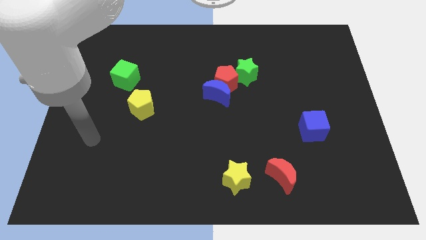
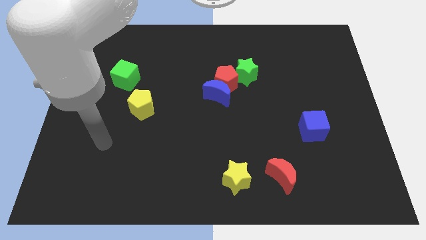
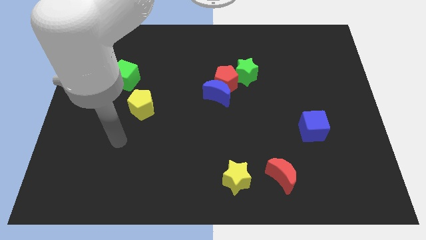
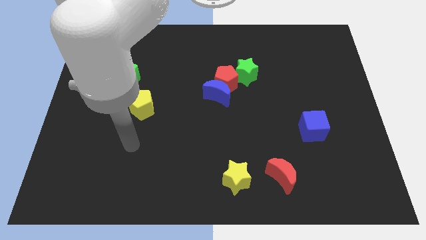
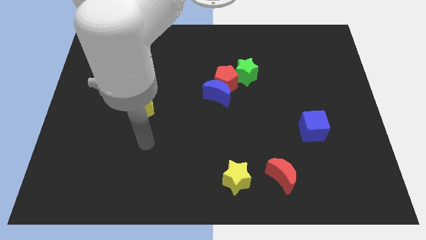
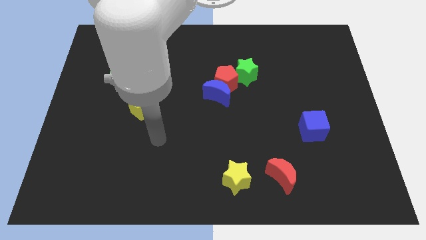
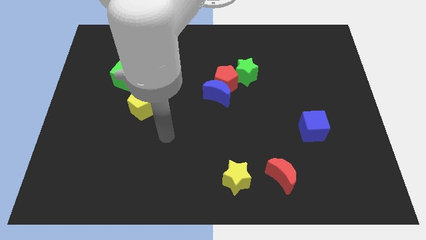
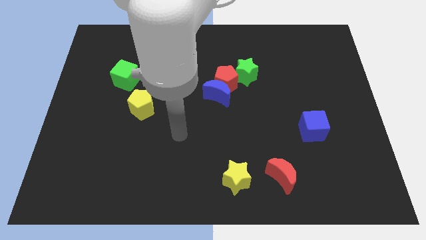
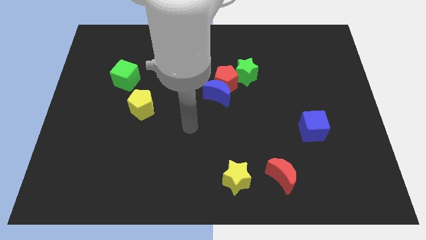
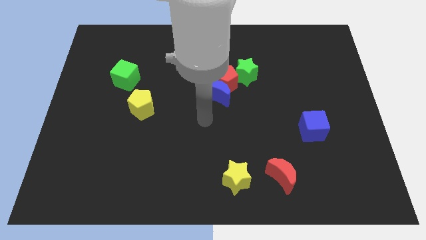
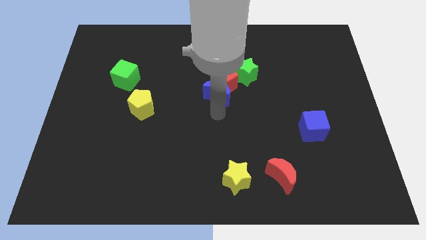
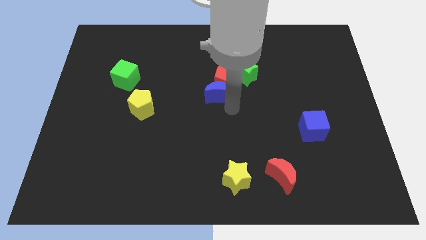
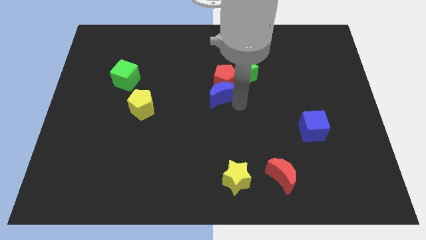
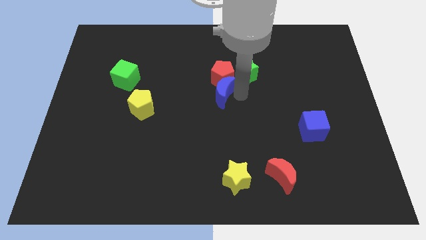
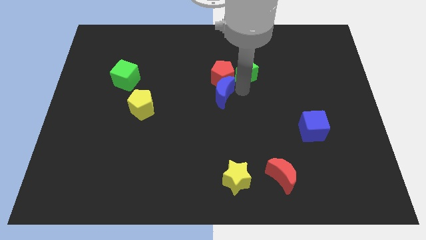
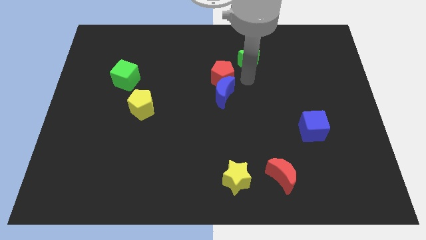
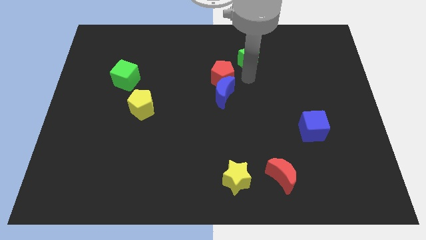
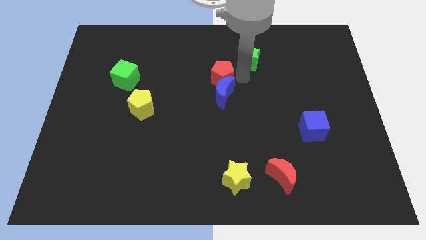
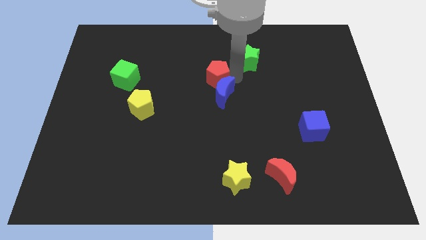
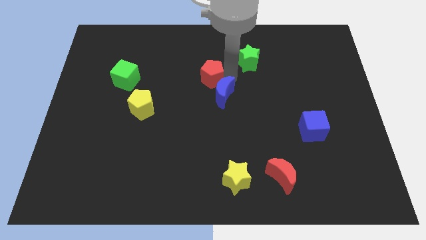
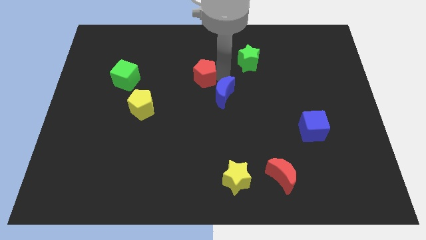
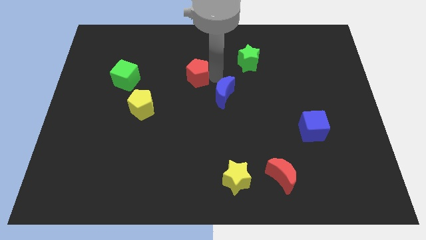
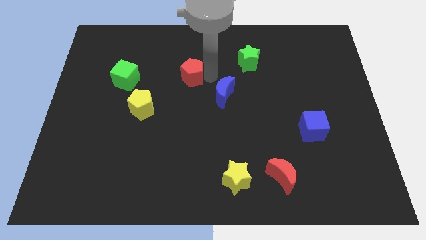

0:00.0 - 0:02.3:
separate the red pentagon from the blue moon and green star

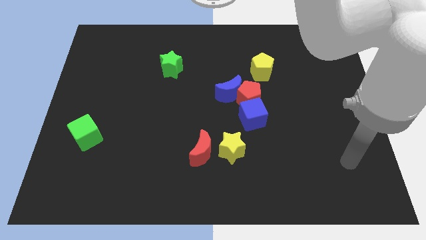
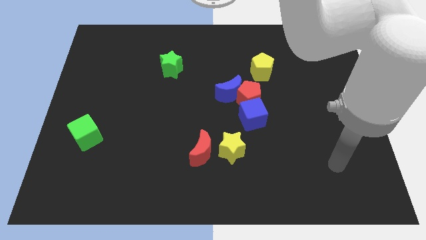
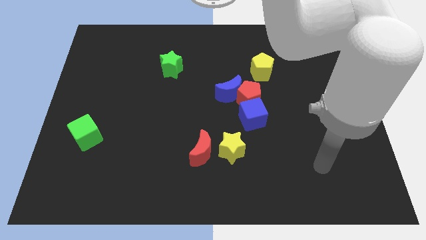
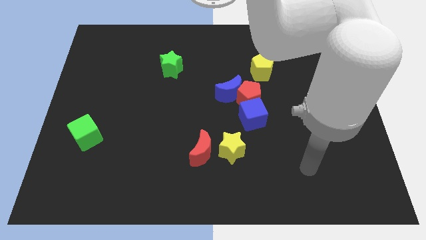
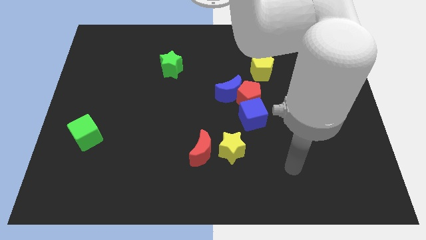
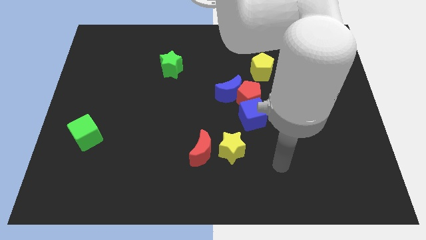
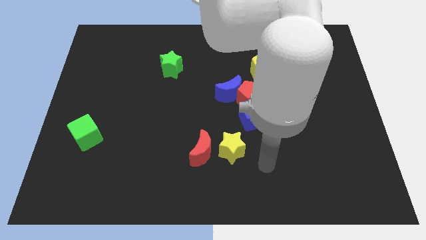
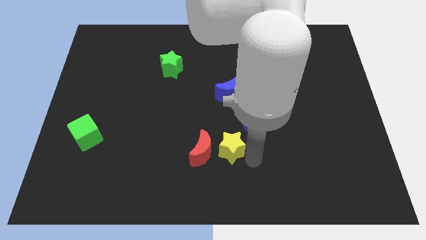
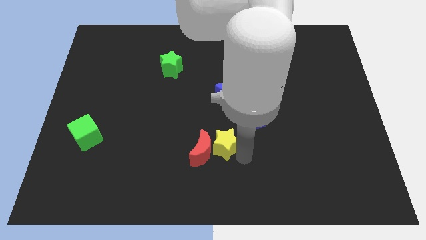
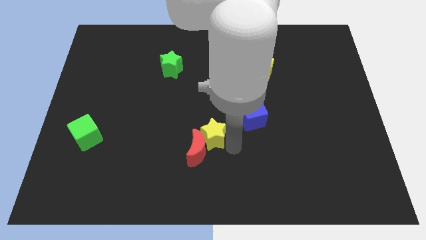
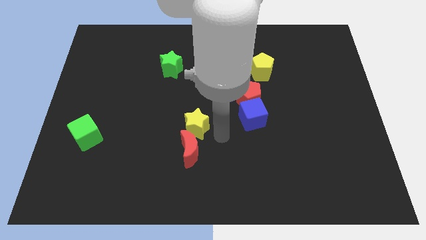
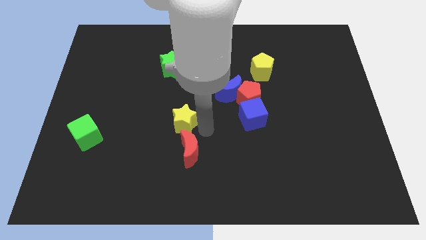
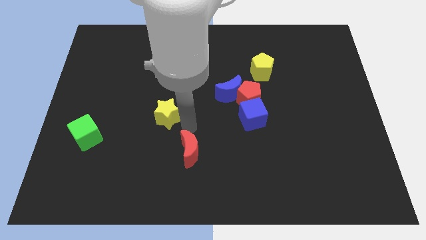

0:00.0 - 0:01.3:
separate the red moon from the yellow star

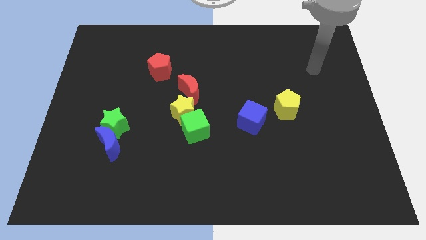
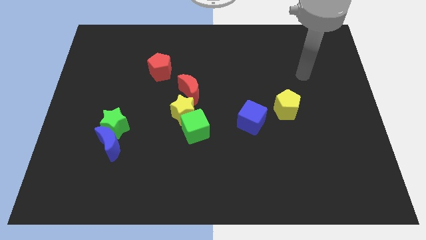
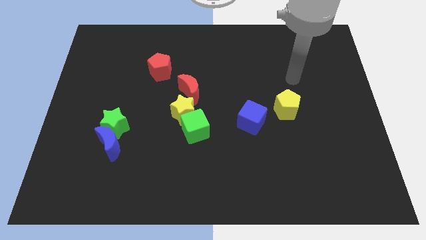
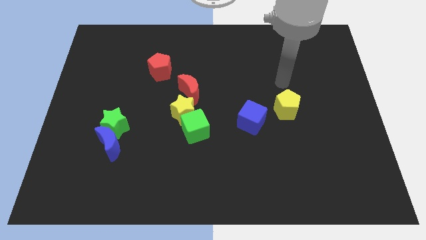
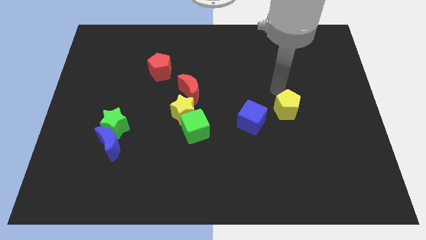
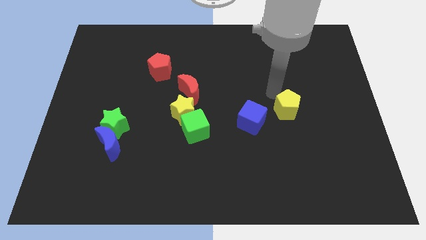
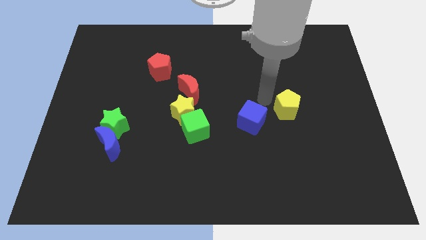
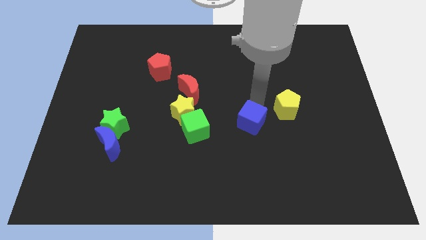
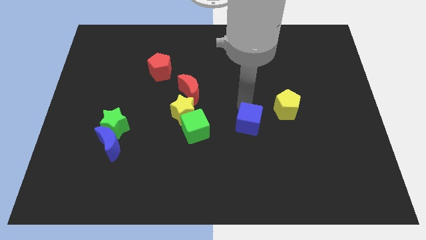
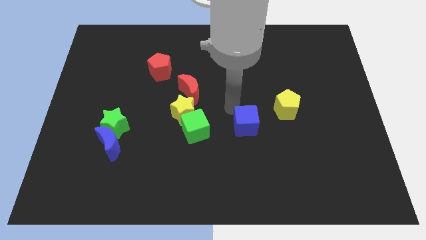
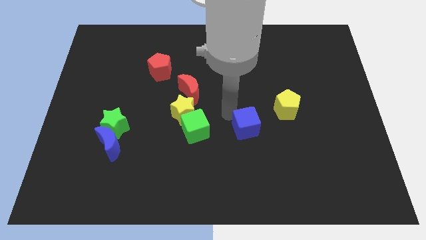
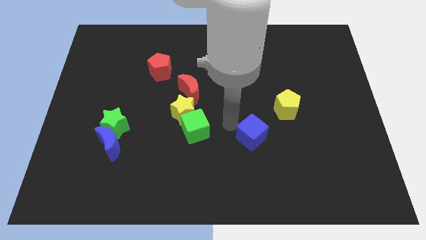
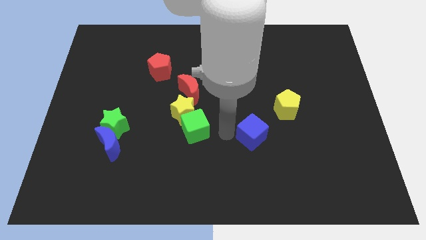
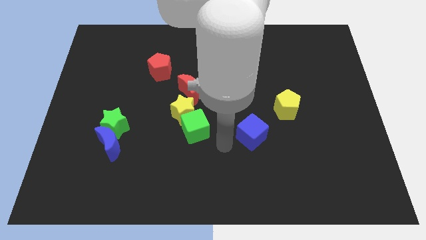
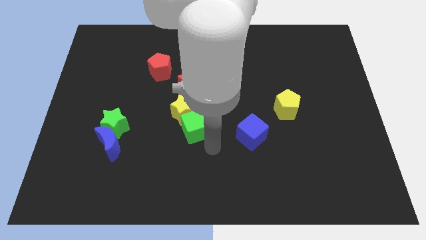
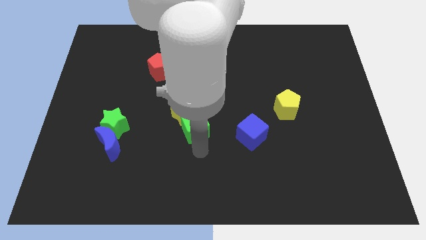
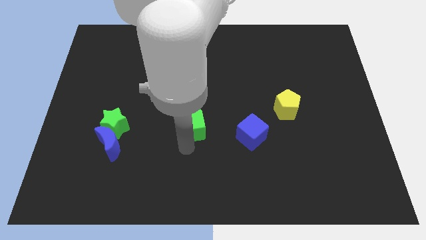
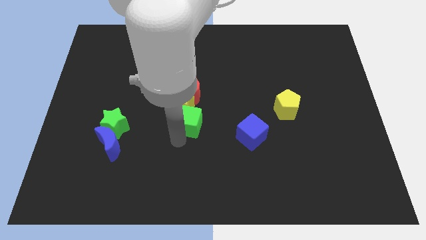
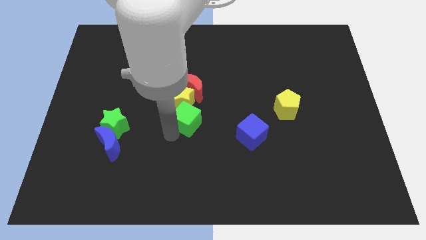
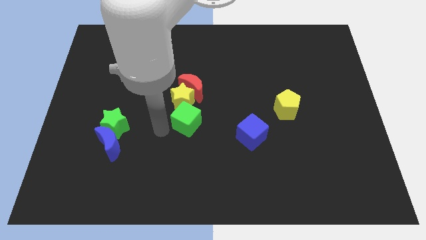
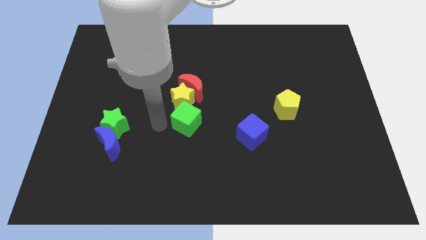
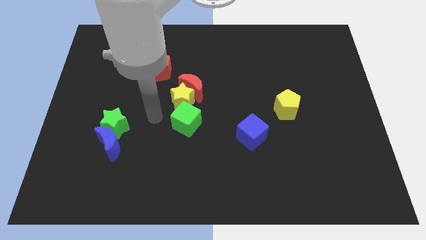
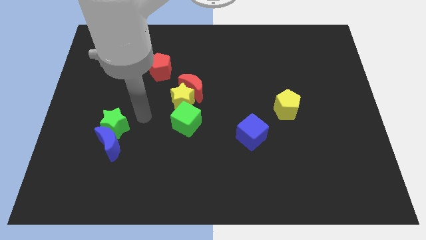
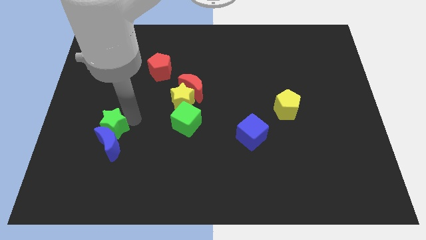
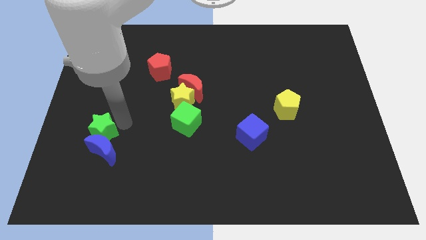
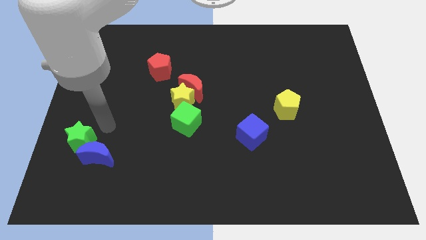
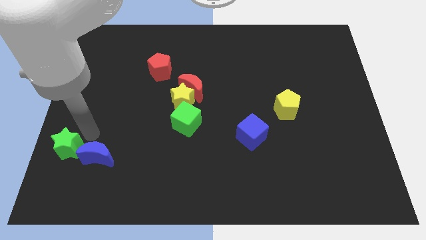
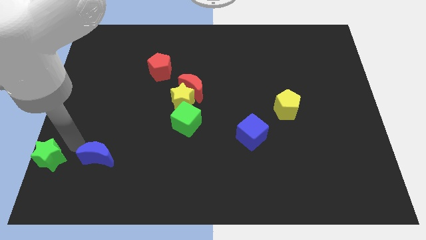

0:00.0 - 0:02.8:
move the blue moon away from the green star

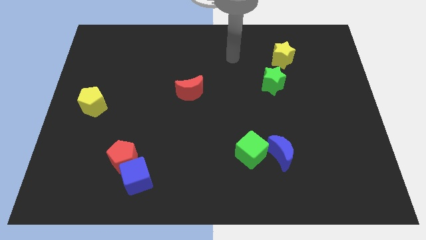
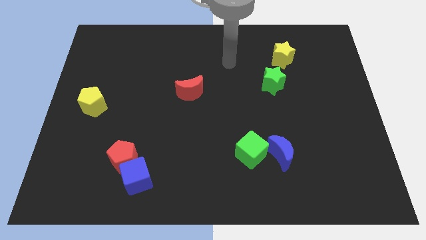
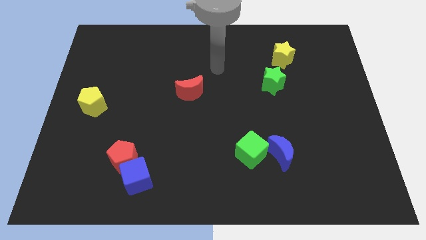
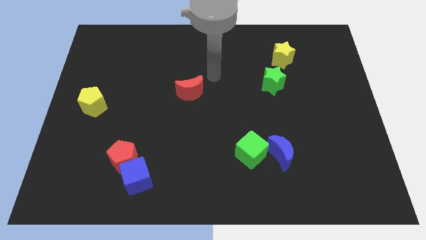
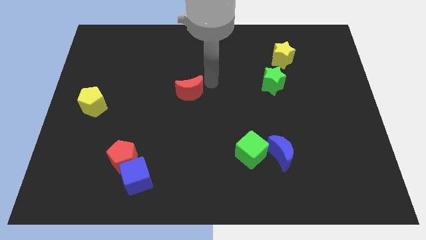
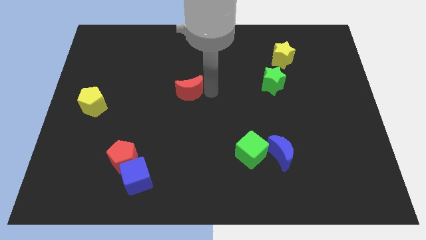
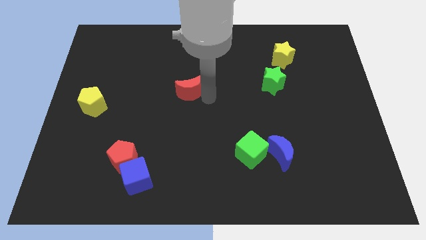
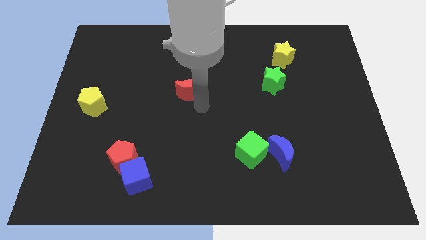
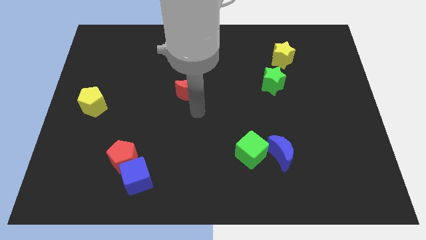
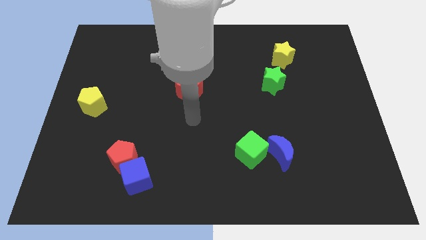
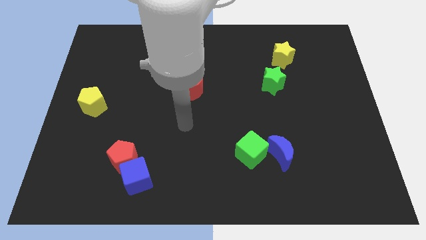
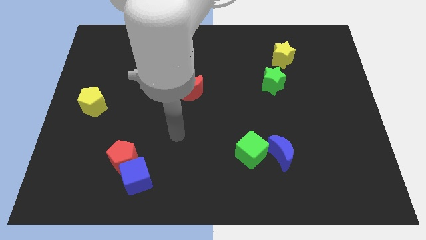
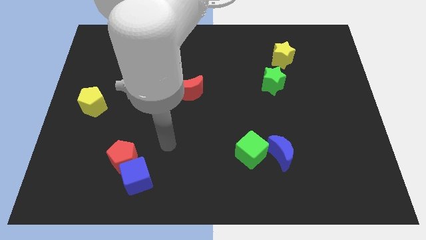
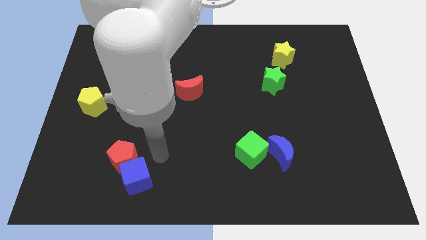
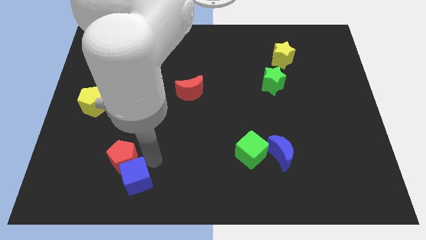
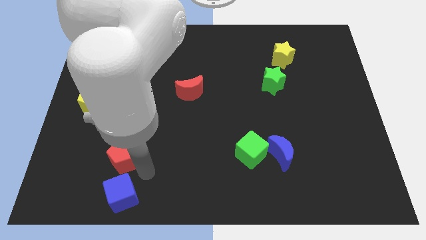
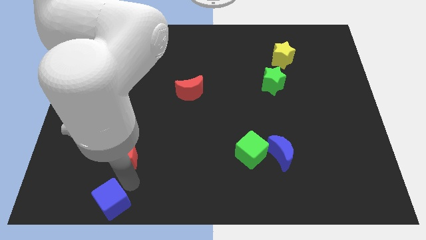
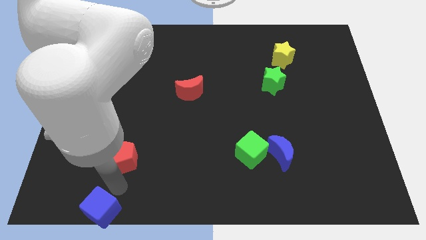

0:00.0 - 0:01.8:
separate the red pentagon from the blue cube

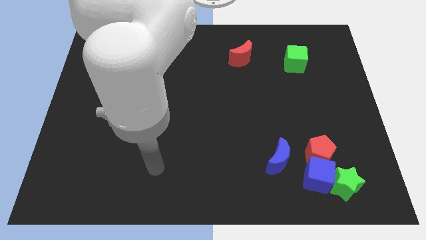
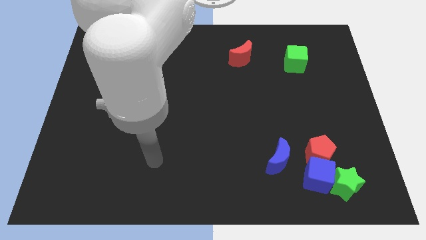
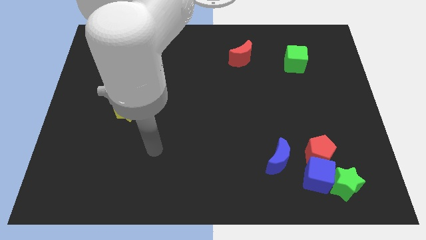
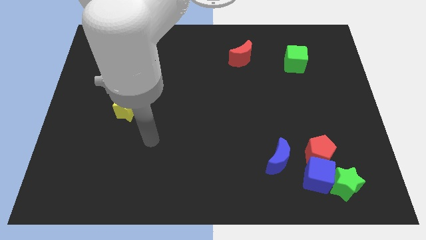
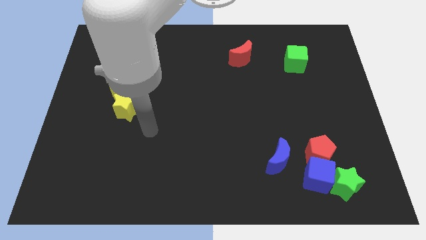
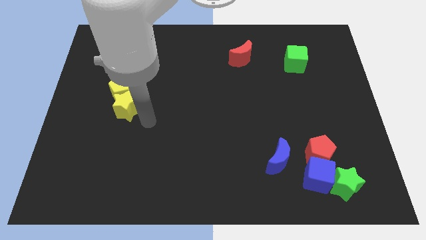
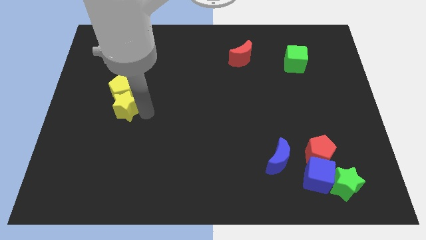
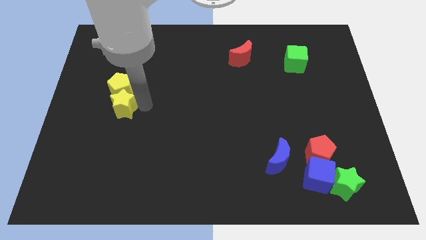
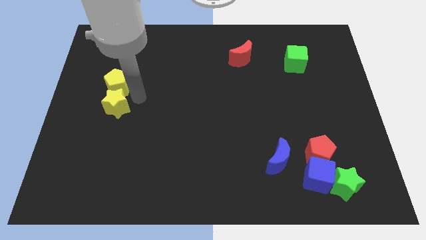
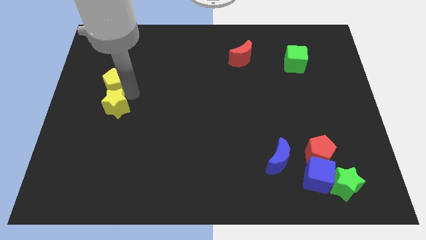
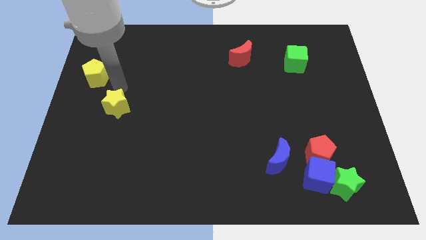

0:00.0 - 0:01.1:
pull the yellow star apart from the yellow pentagon
